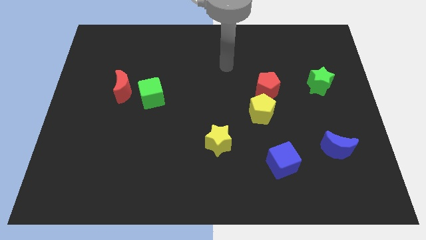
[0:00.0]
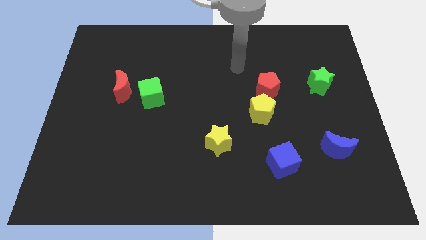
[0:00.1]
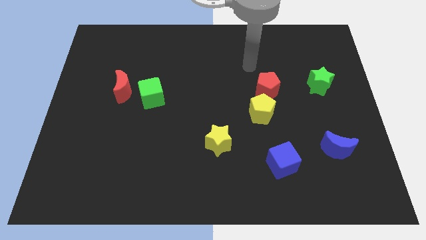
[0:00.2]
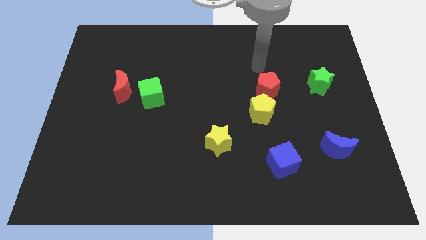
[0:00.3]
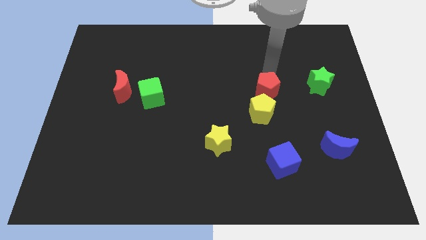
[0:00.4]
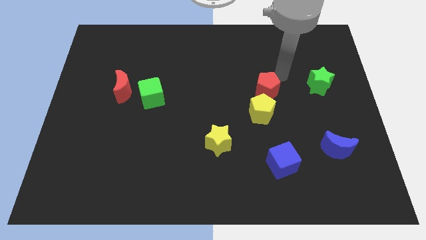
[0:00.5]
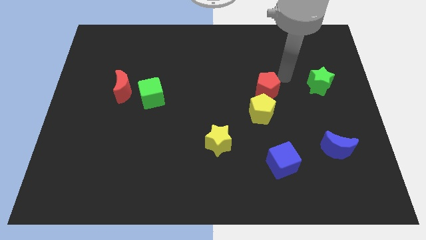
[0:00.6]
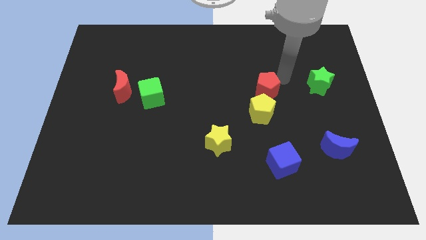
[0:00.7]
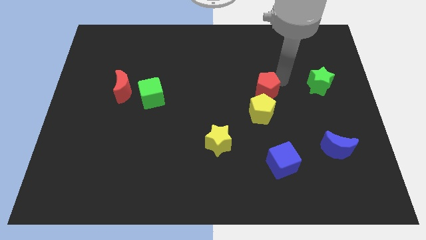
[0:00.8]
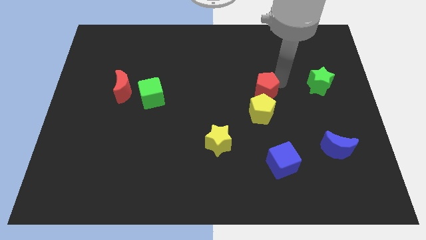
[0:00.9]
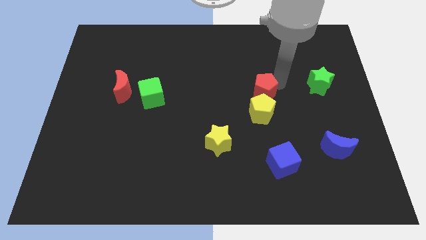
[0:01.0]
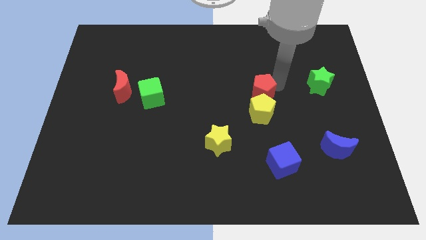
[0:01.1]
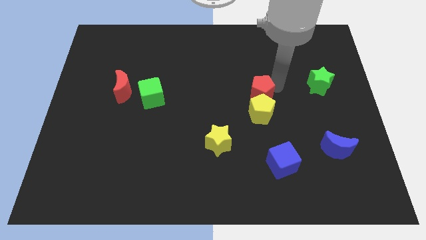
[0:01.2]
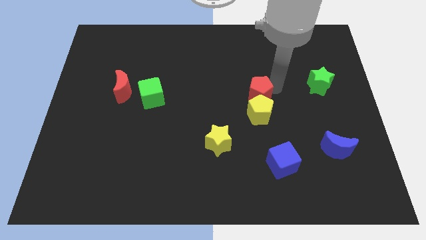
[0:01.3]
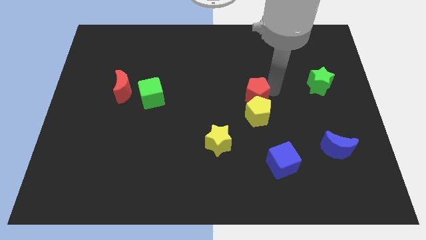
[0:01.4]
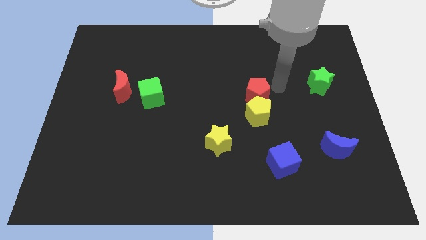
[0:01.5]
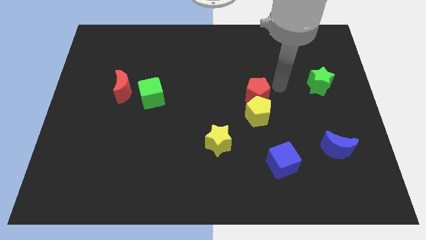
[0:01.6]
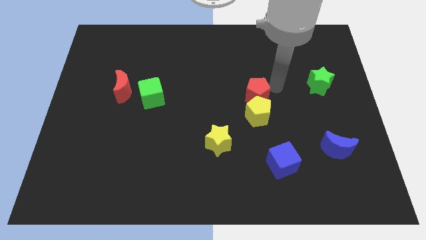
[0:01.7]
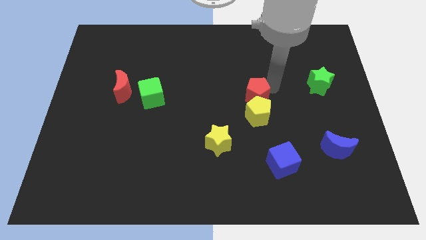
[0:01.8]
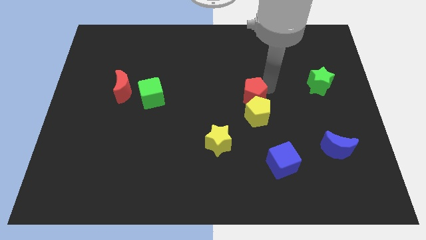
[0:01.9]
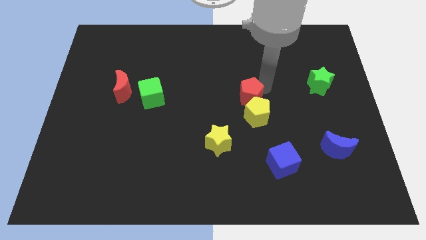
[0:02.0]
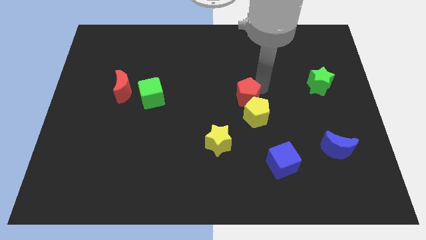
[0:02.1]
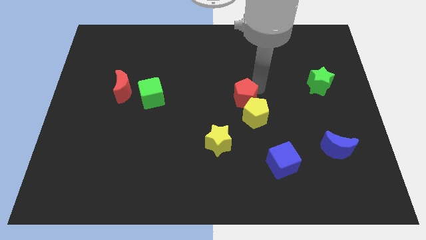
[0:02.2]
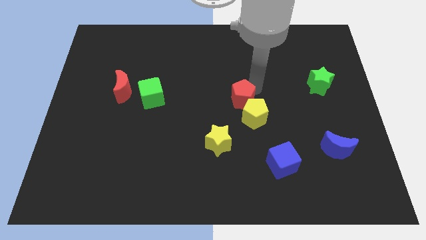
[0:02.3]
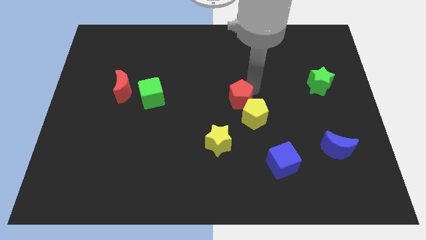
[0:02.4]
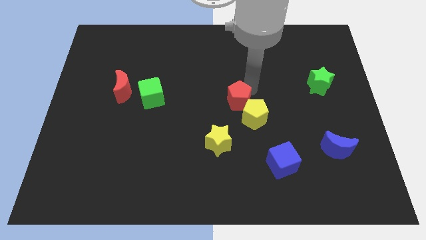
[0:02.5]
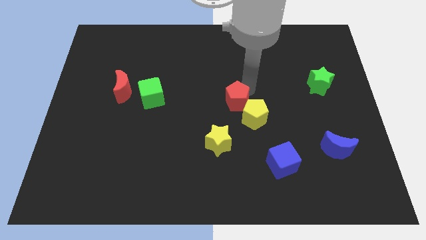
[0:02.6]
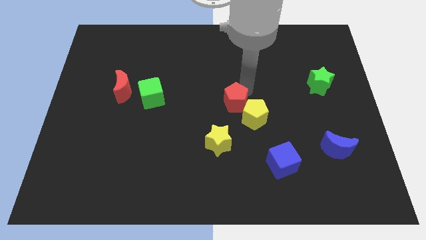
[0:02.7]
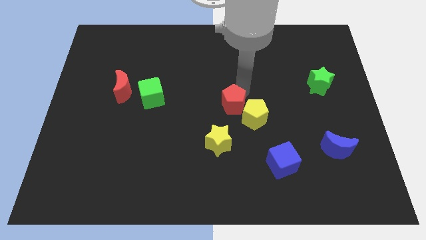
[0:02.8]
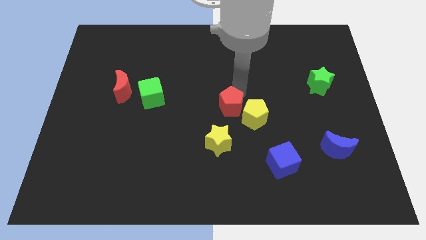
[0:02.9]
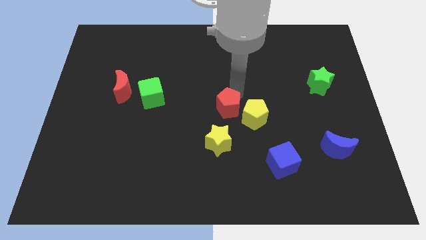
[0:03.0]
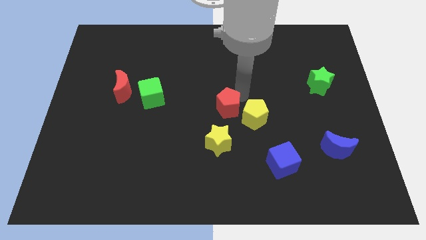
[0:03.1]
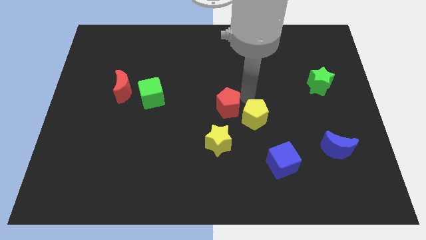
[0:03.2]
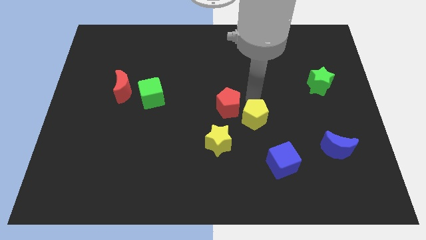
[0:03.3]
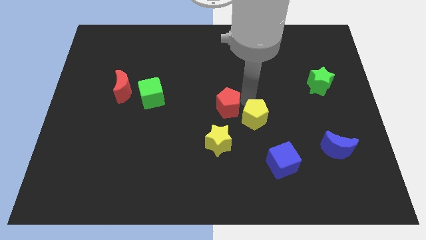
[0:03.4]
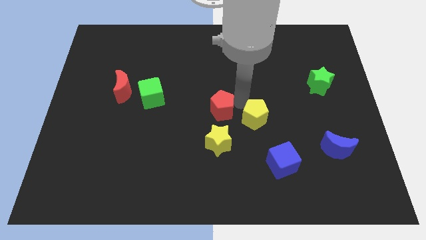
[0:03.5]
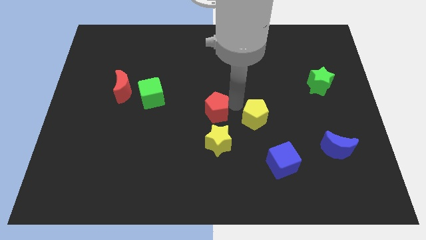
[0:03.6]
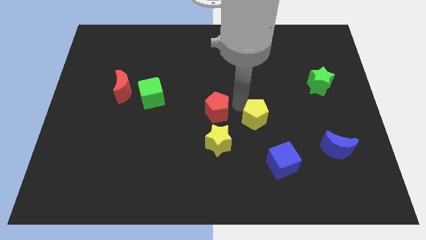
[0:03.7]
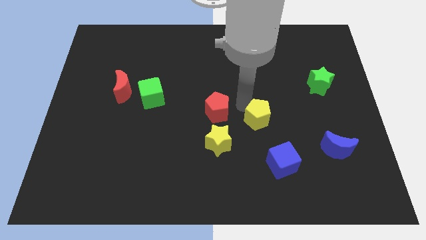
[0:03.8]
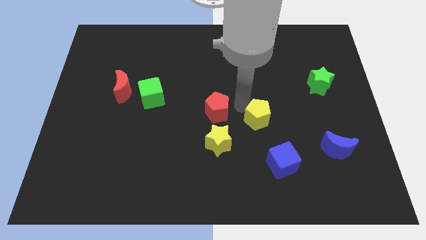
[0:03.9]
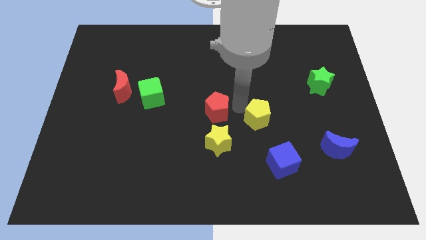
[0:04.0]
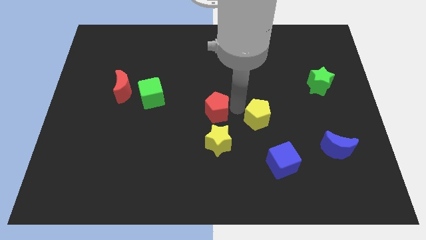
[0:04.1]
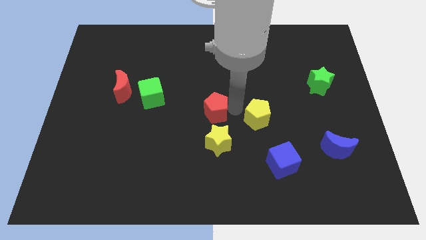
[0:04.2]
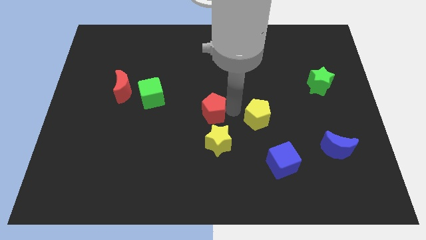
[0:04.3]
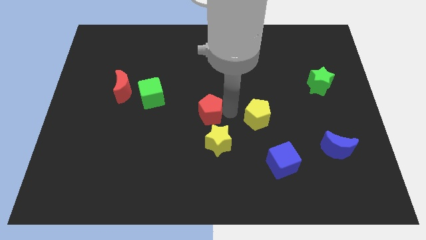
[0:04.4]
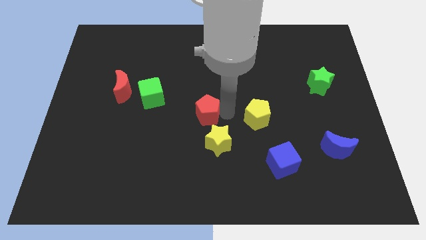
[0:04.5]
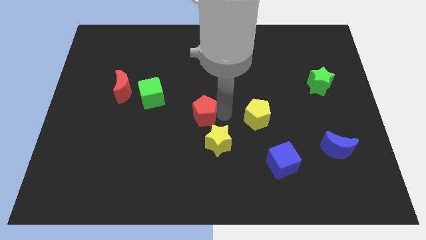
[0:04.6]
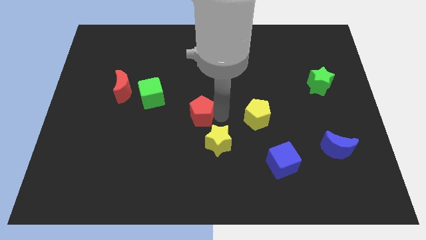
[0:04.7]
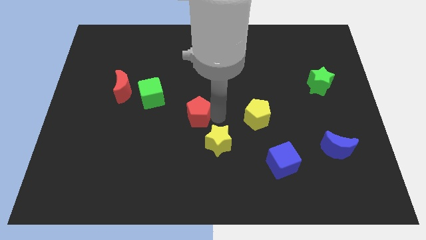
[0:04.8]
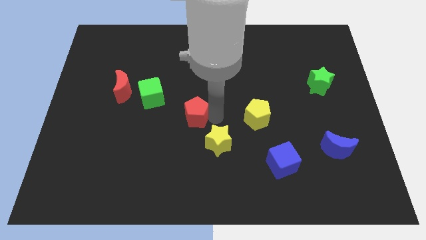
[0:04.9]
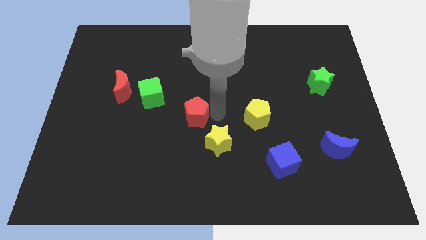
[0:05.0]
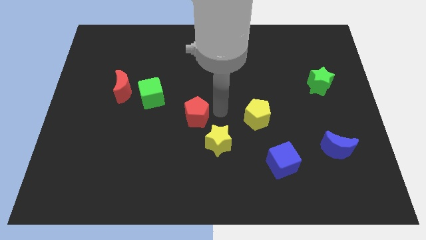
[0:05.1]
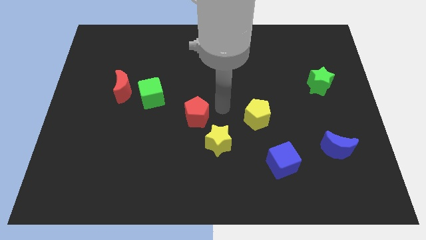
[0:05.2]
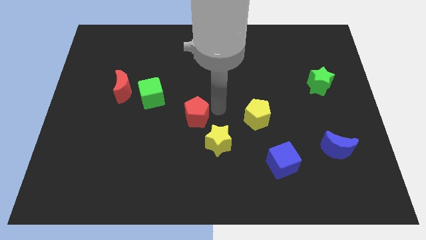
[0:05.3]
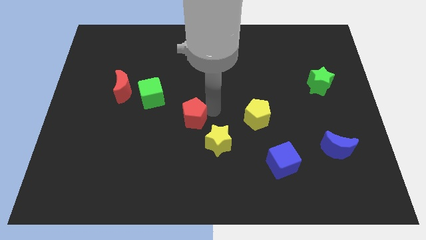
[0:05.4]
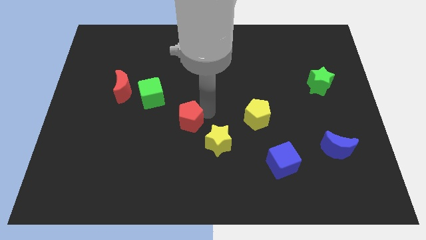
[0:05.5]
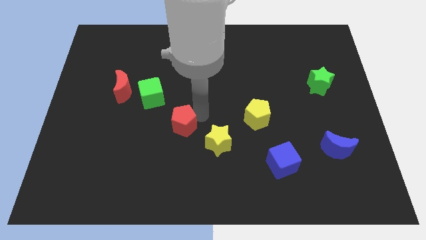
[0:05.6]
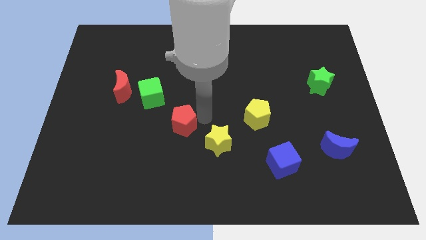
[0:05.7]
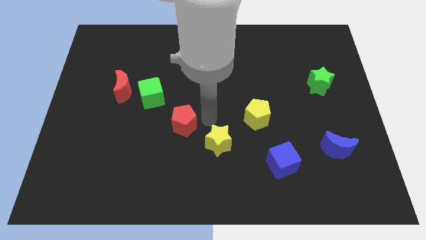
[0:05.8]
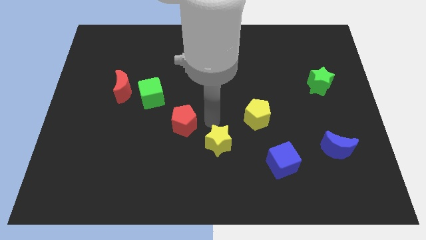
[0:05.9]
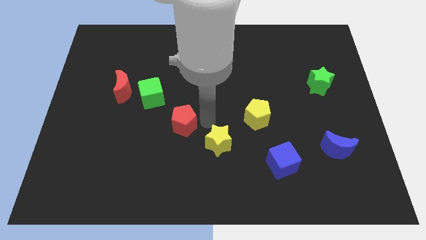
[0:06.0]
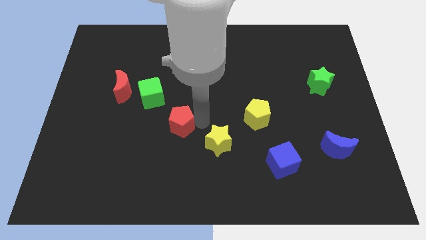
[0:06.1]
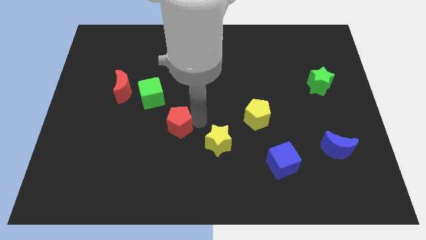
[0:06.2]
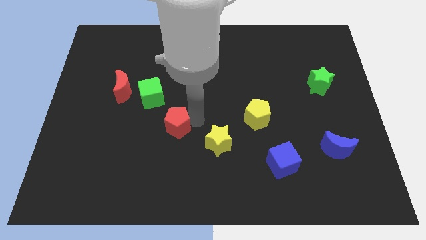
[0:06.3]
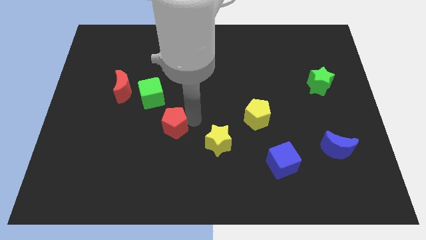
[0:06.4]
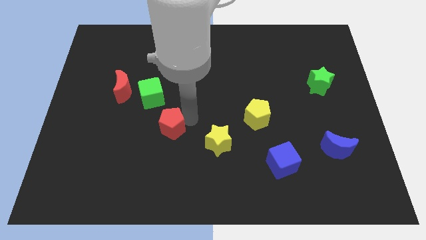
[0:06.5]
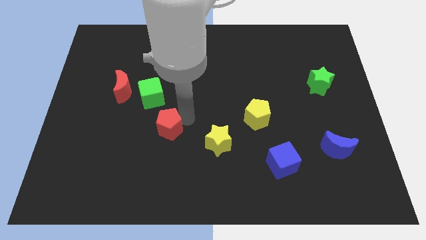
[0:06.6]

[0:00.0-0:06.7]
push the red pentagon to the bottom side of the green cube
